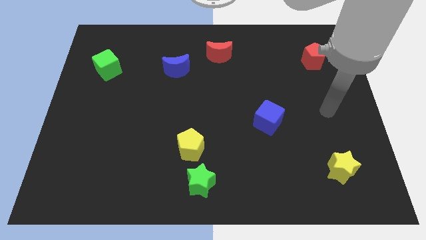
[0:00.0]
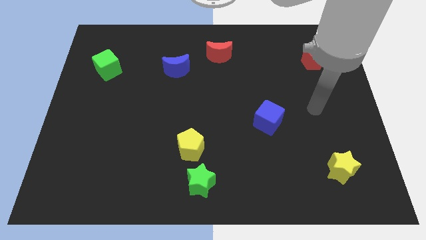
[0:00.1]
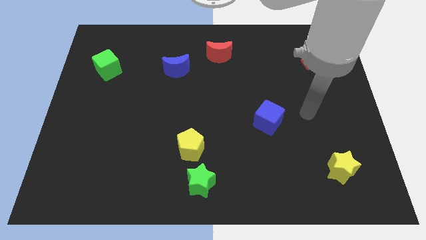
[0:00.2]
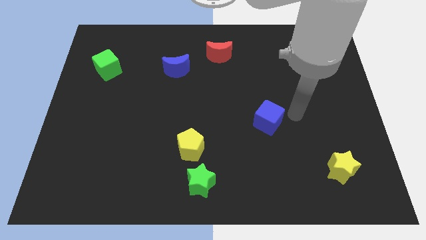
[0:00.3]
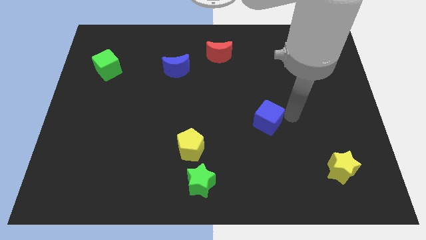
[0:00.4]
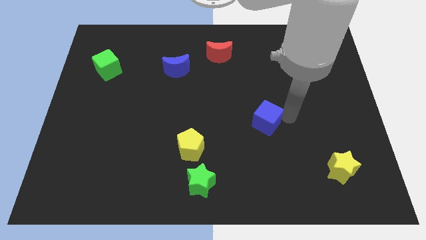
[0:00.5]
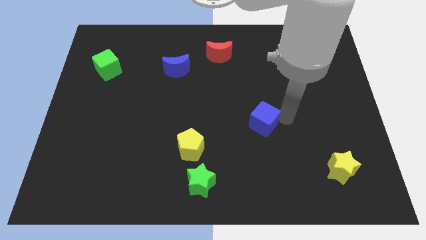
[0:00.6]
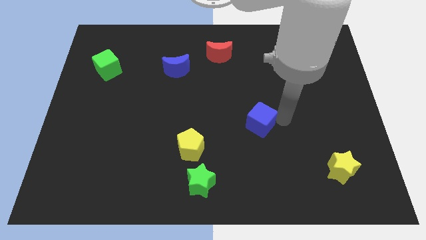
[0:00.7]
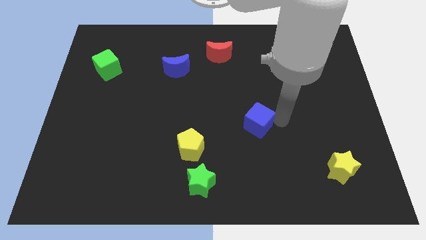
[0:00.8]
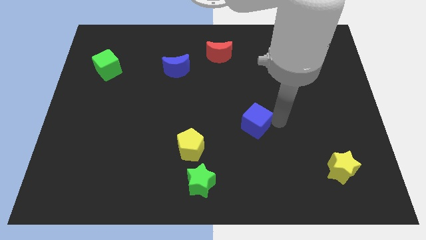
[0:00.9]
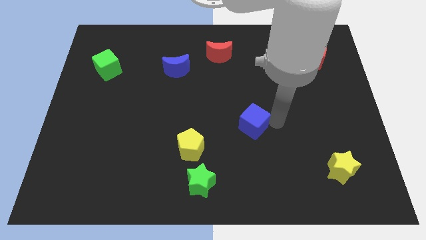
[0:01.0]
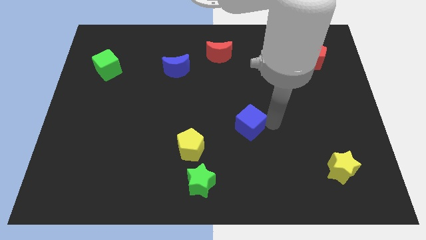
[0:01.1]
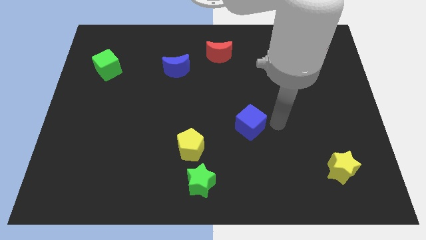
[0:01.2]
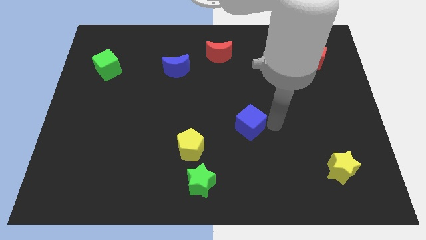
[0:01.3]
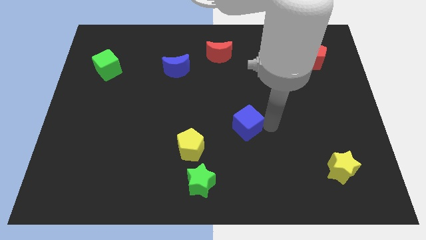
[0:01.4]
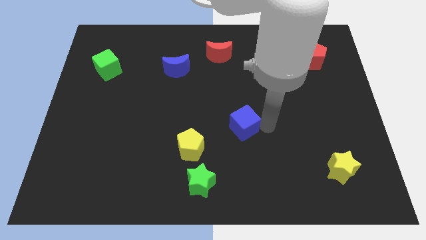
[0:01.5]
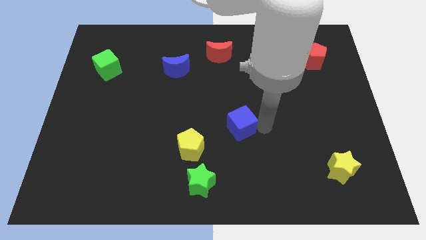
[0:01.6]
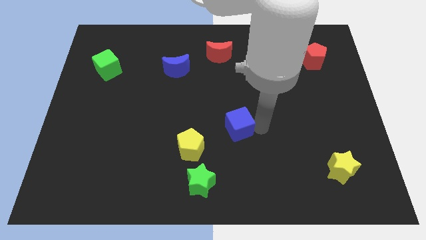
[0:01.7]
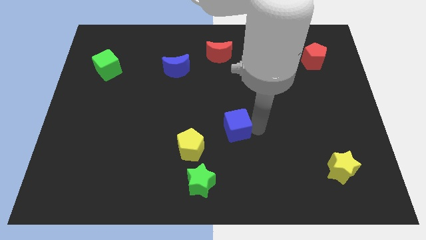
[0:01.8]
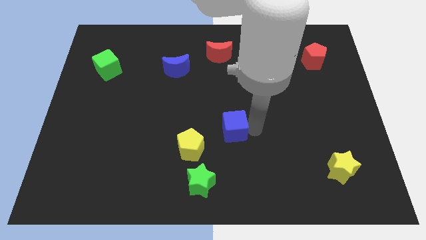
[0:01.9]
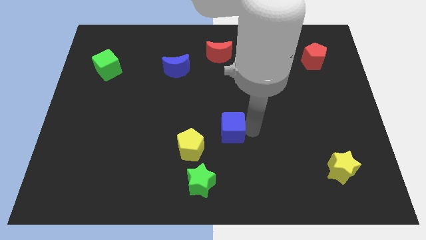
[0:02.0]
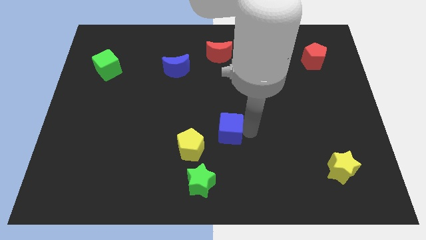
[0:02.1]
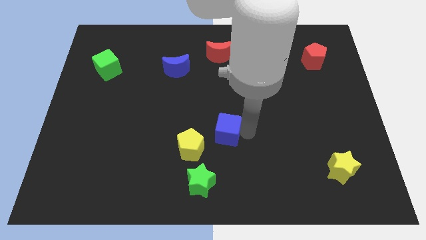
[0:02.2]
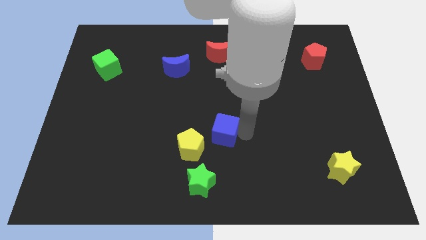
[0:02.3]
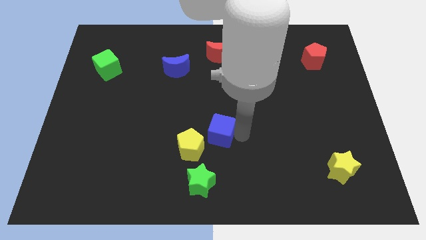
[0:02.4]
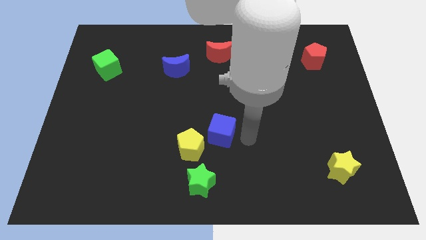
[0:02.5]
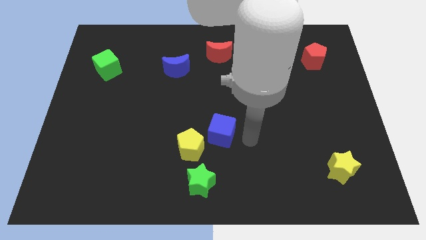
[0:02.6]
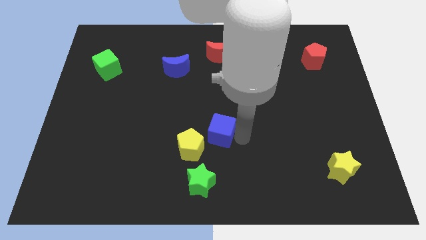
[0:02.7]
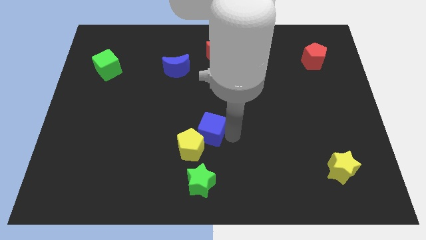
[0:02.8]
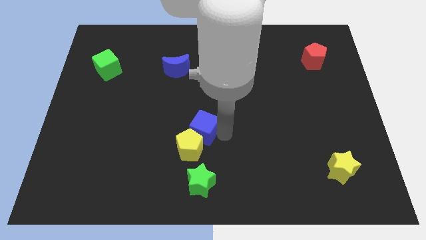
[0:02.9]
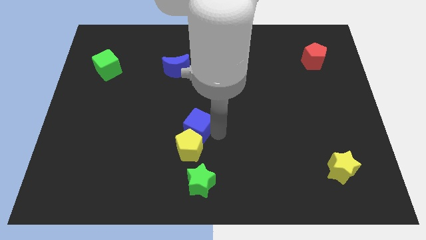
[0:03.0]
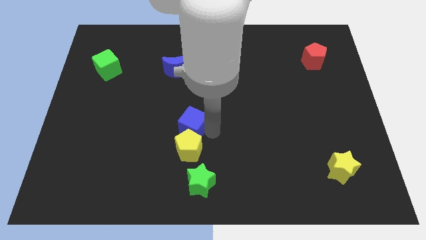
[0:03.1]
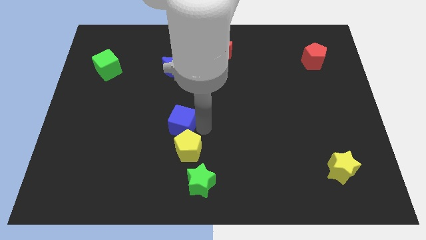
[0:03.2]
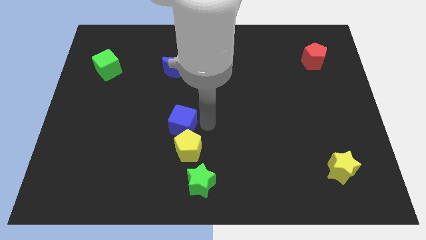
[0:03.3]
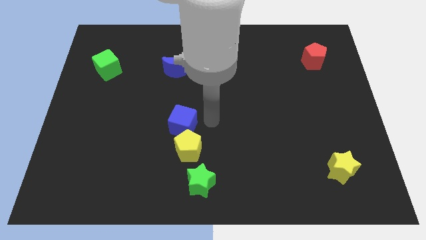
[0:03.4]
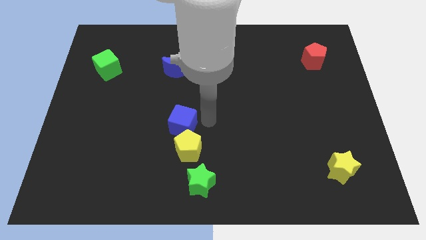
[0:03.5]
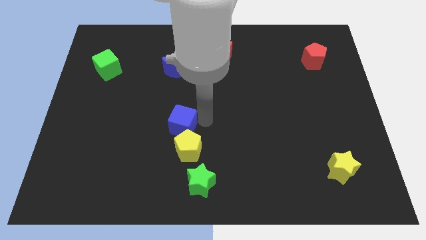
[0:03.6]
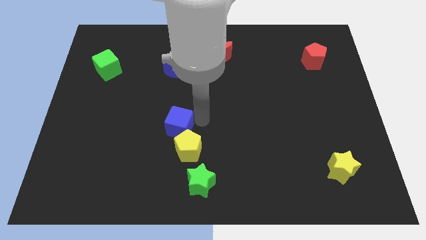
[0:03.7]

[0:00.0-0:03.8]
move the blue cube to the left

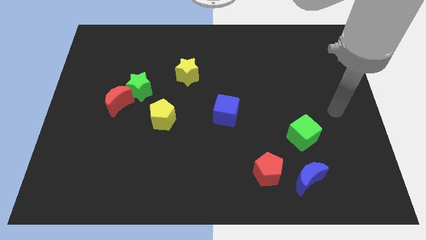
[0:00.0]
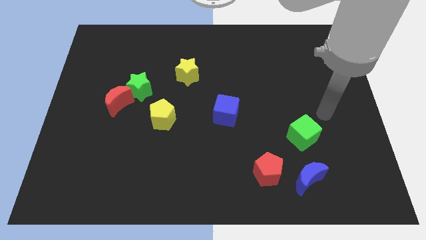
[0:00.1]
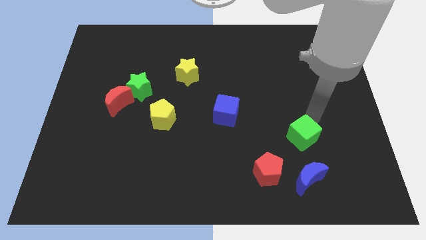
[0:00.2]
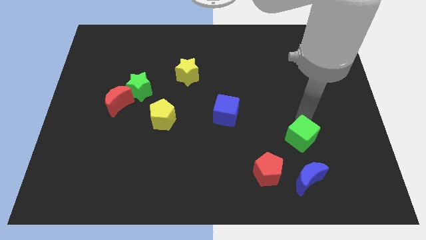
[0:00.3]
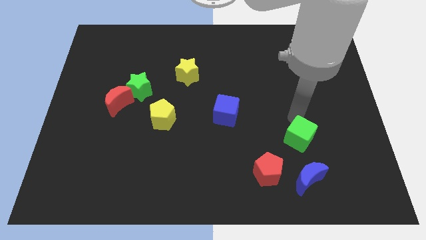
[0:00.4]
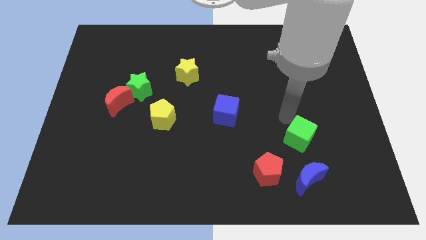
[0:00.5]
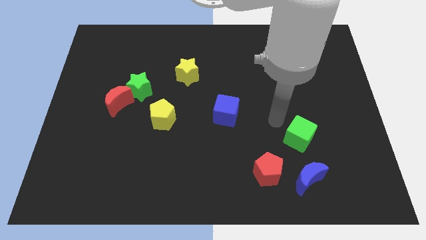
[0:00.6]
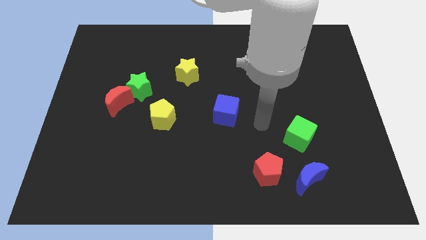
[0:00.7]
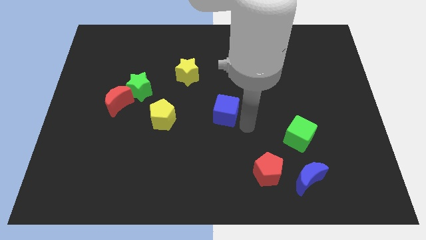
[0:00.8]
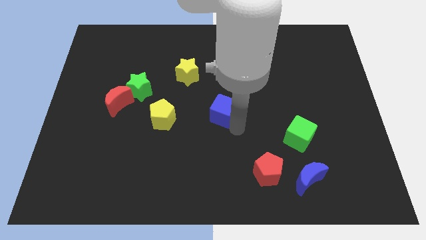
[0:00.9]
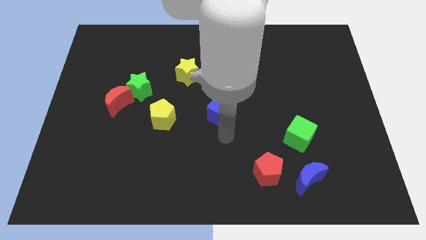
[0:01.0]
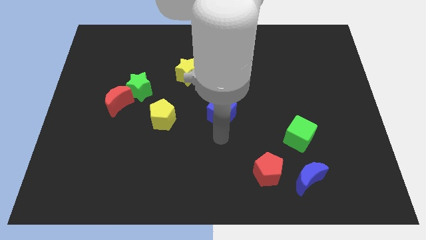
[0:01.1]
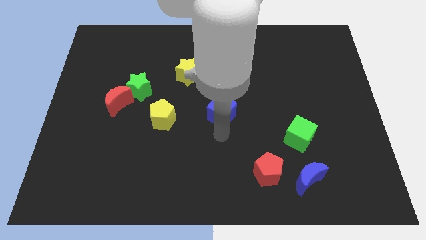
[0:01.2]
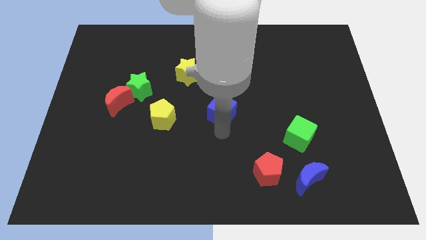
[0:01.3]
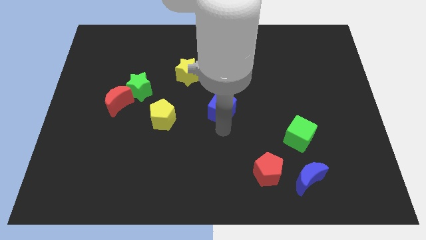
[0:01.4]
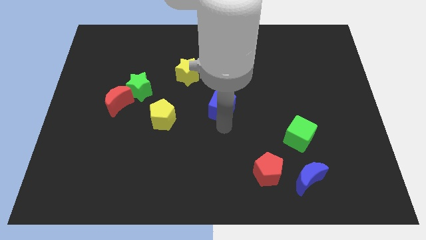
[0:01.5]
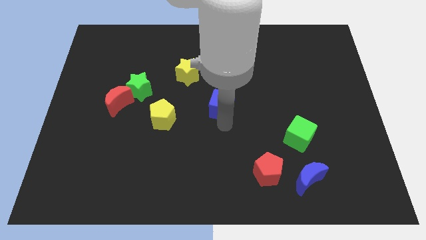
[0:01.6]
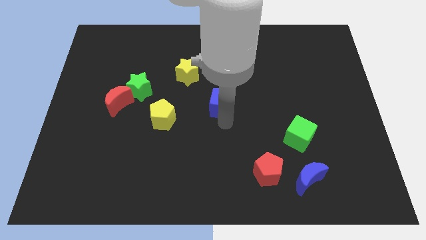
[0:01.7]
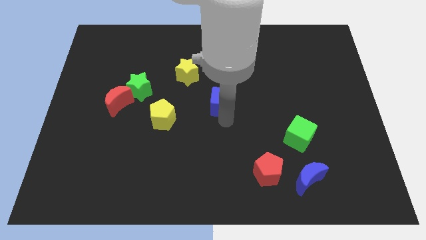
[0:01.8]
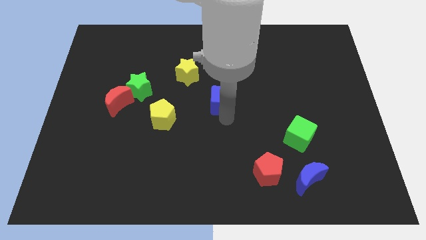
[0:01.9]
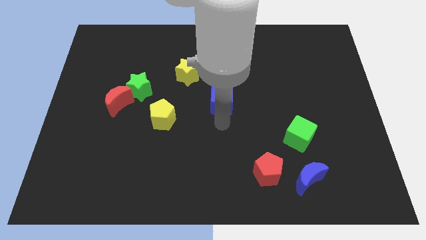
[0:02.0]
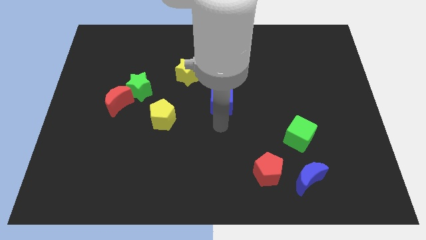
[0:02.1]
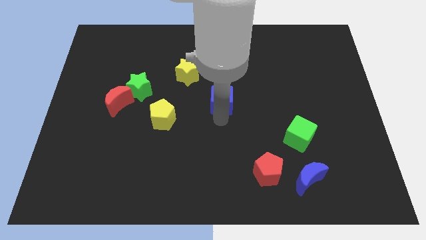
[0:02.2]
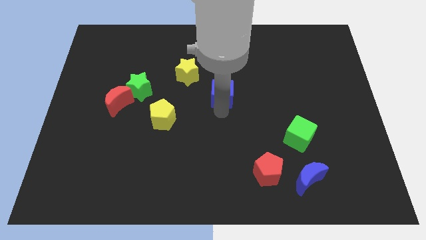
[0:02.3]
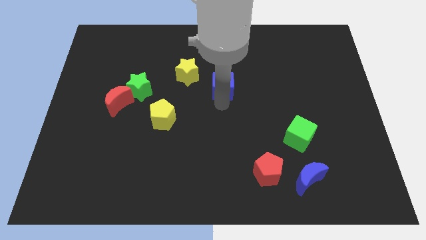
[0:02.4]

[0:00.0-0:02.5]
push the blue cube up a little

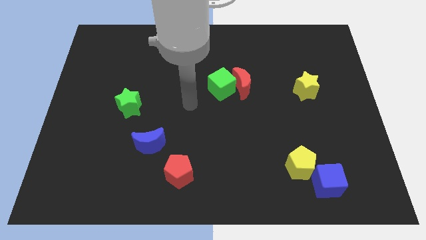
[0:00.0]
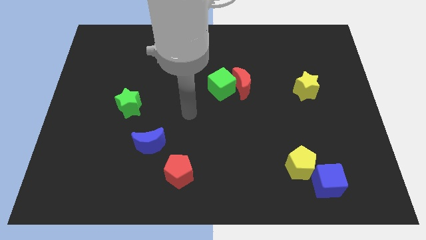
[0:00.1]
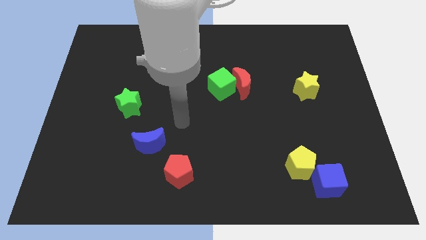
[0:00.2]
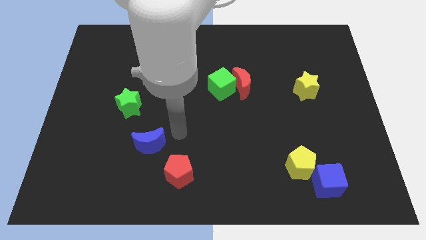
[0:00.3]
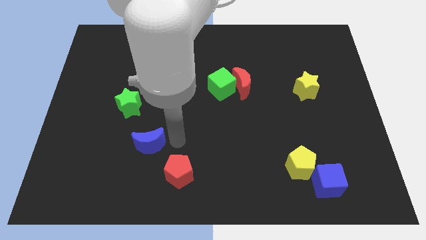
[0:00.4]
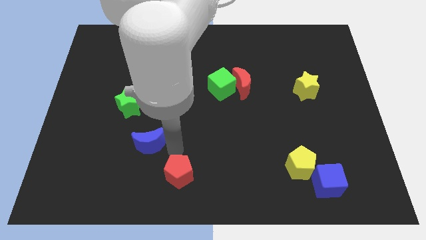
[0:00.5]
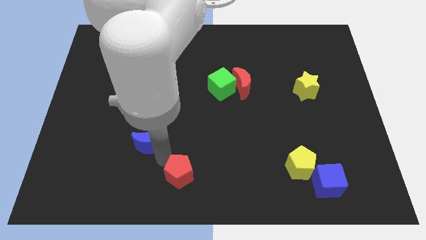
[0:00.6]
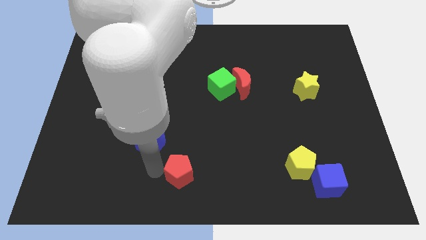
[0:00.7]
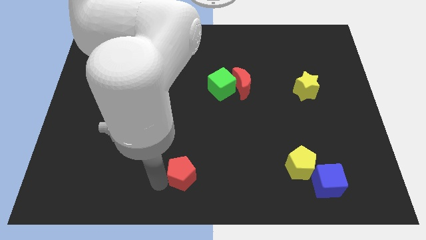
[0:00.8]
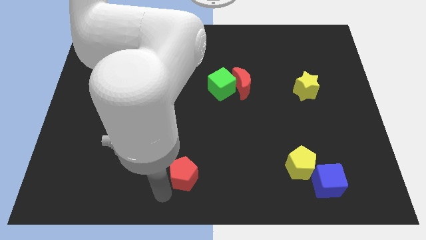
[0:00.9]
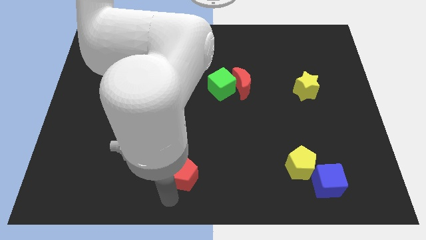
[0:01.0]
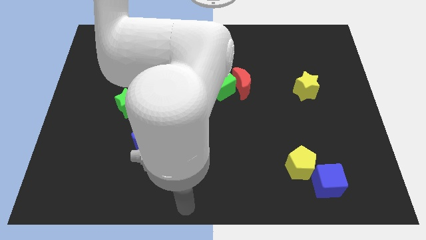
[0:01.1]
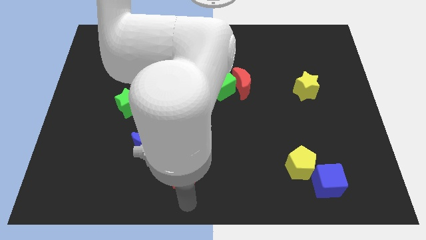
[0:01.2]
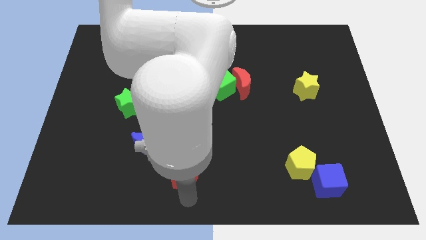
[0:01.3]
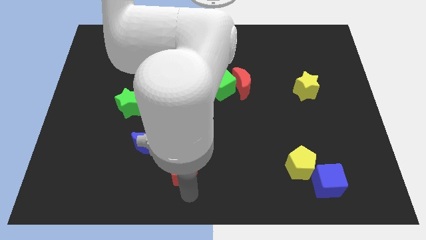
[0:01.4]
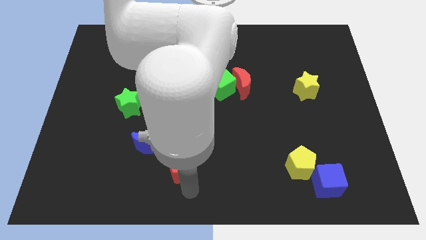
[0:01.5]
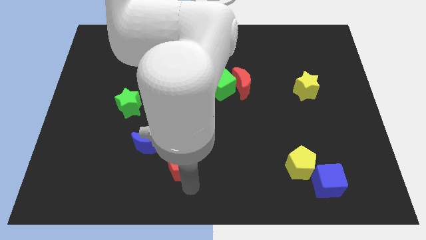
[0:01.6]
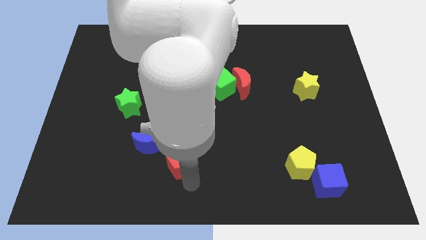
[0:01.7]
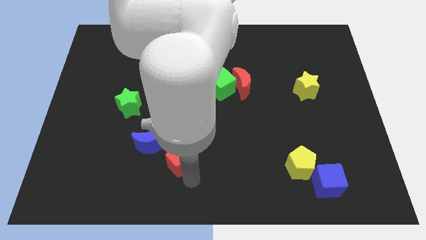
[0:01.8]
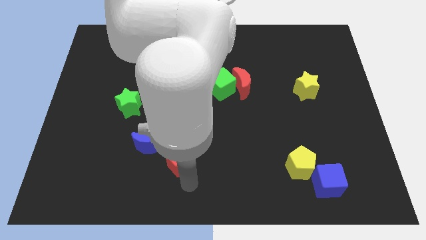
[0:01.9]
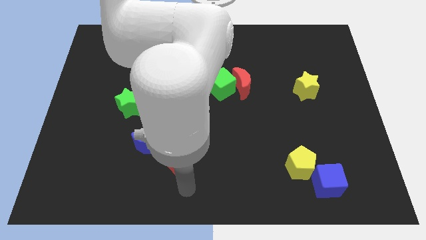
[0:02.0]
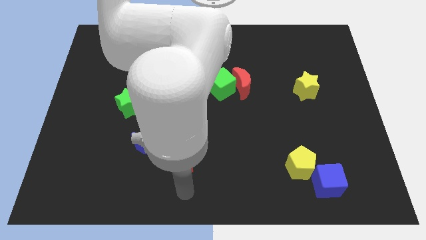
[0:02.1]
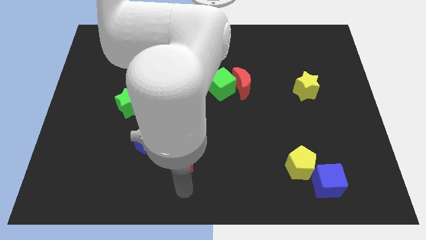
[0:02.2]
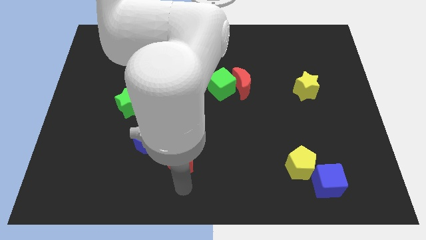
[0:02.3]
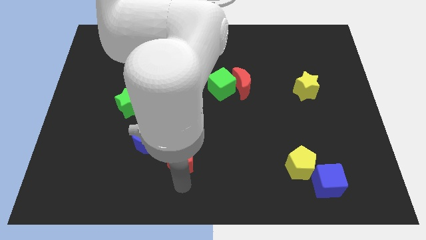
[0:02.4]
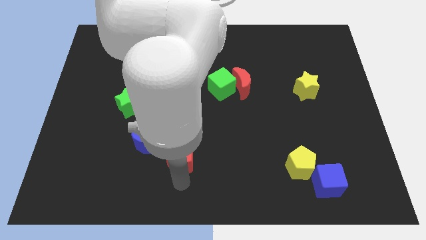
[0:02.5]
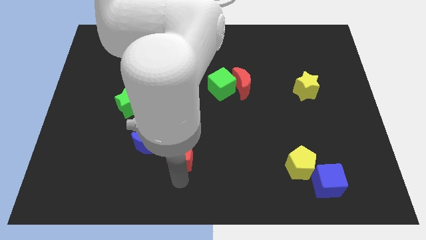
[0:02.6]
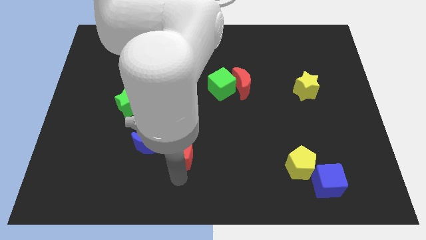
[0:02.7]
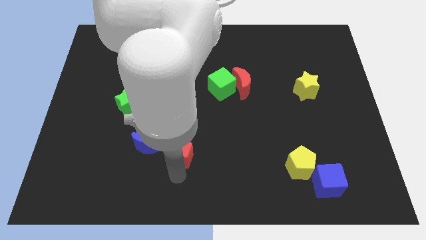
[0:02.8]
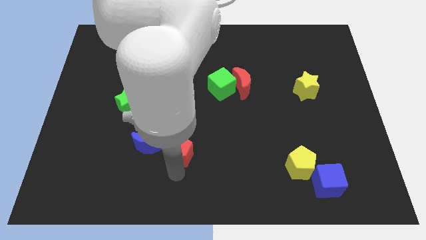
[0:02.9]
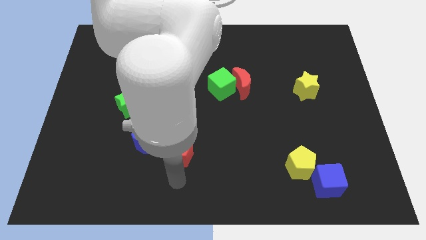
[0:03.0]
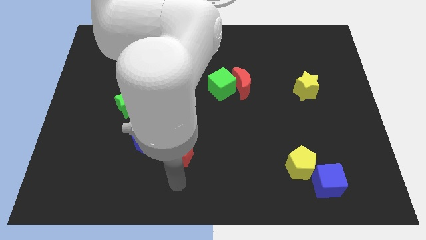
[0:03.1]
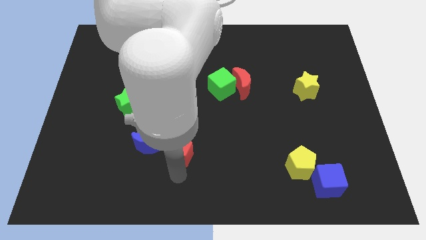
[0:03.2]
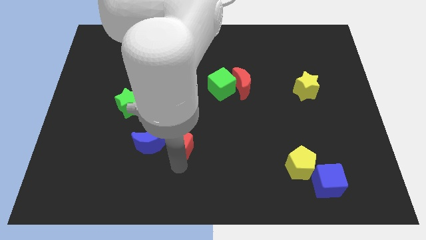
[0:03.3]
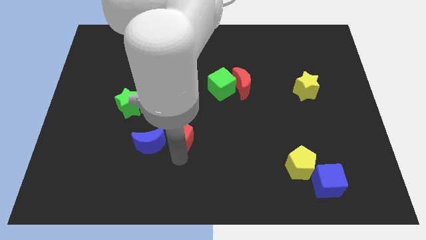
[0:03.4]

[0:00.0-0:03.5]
push the red pentagon upwards a little
